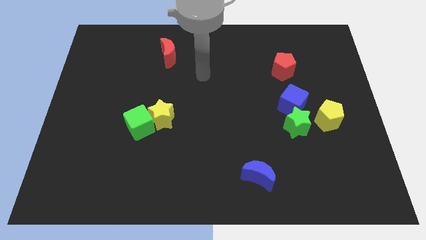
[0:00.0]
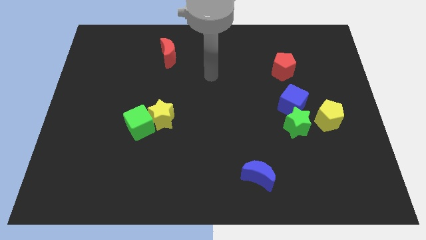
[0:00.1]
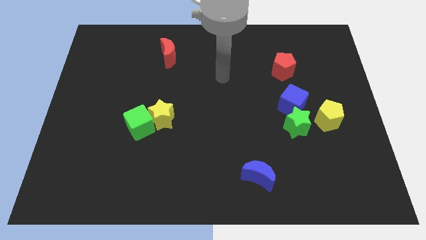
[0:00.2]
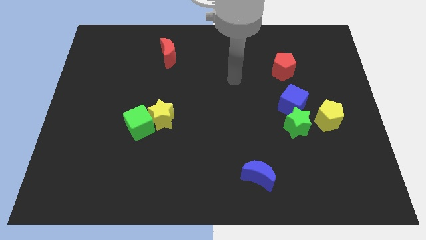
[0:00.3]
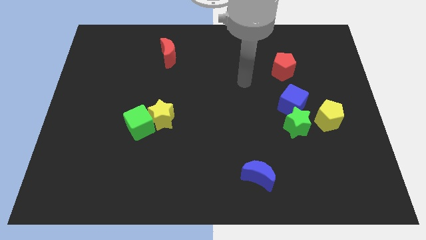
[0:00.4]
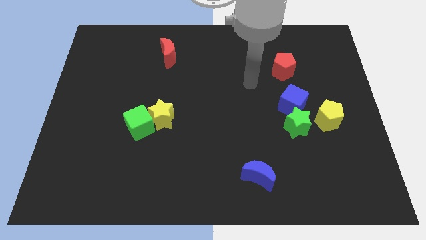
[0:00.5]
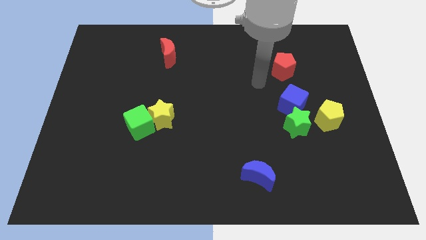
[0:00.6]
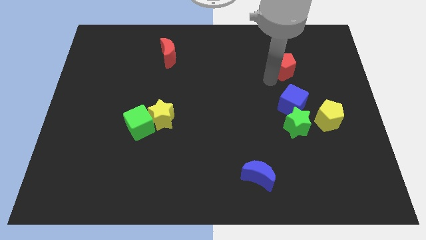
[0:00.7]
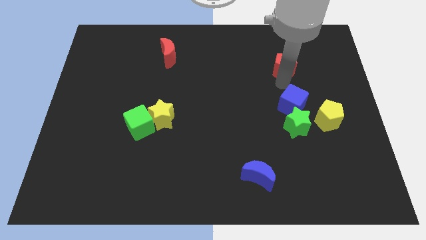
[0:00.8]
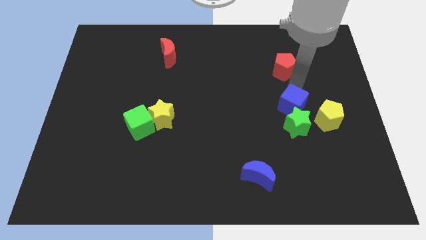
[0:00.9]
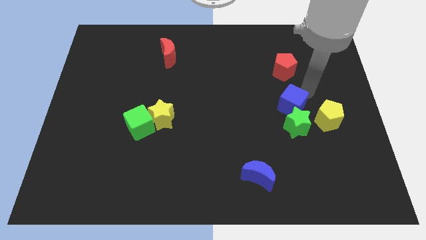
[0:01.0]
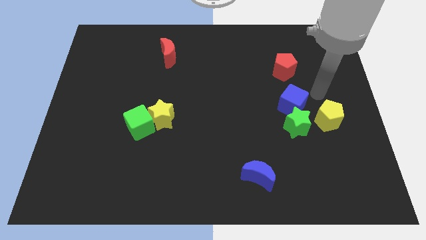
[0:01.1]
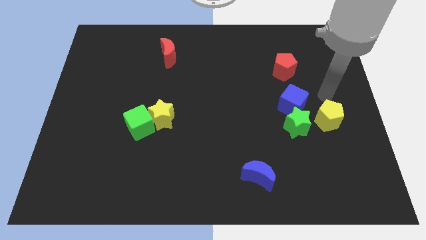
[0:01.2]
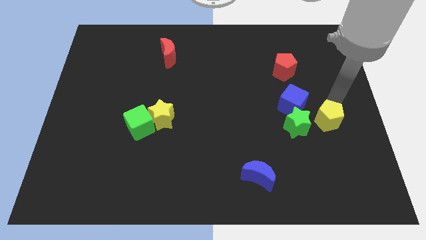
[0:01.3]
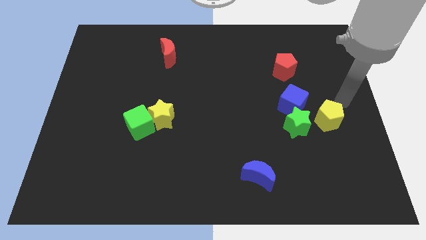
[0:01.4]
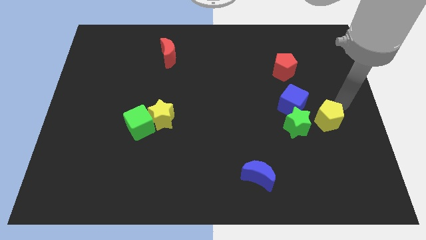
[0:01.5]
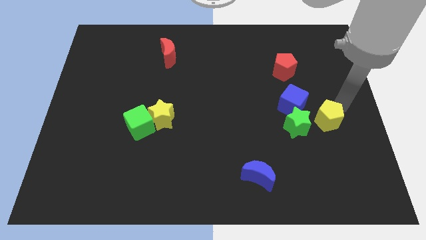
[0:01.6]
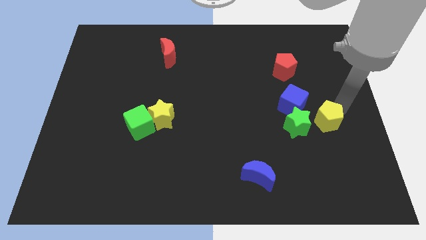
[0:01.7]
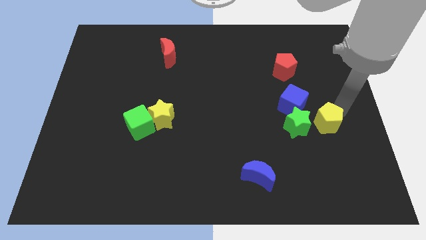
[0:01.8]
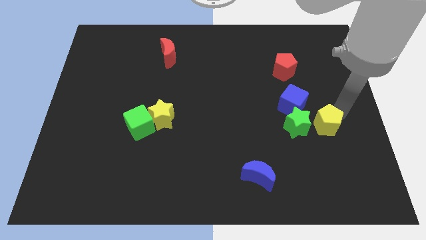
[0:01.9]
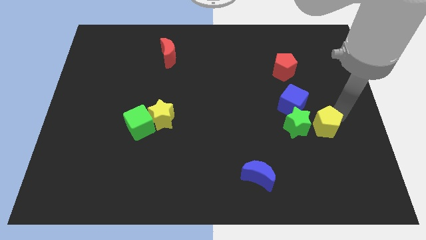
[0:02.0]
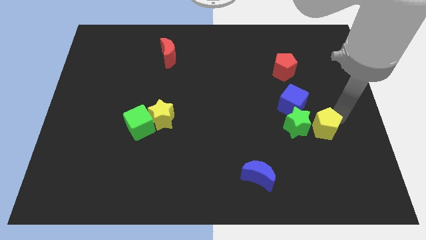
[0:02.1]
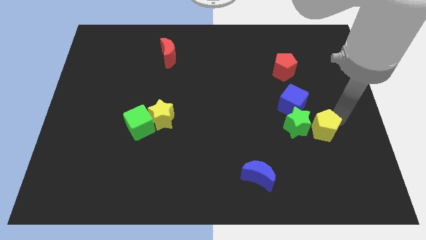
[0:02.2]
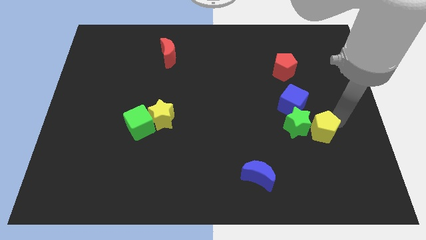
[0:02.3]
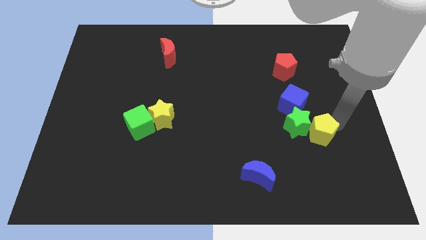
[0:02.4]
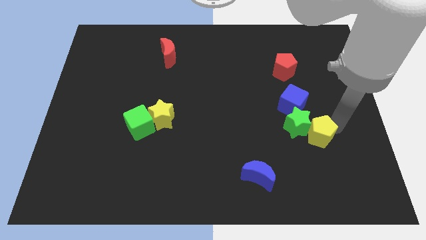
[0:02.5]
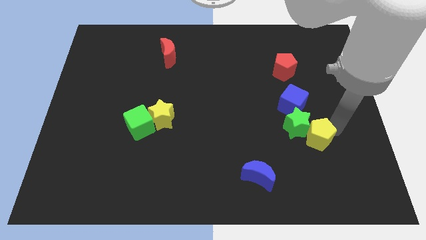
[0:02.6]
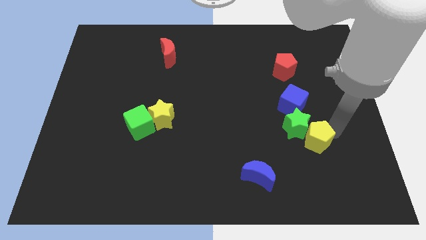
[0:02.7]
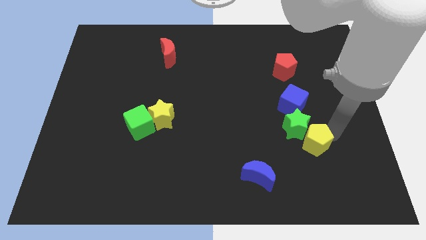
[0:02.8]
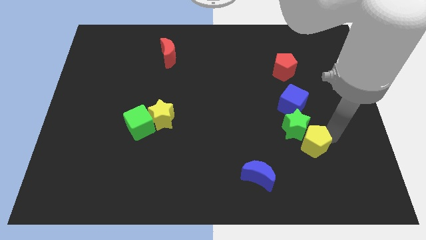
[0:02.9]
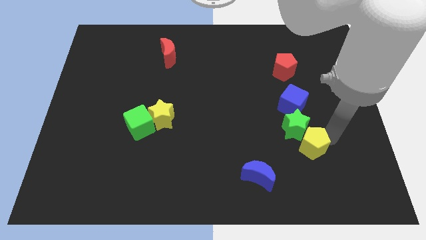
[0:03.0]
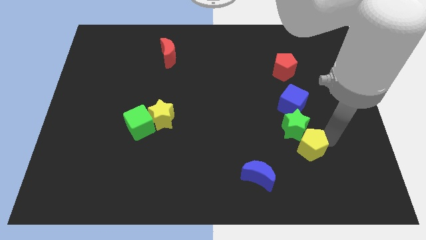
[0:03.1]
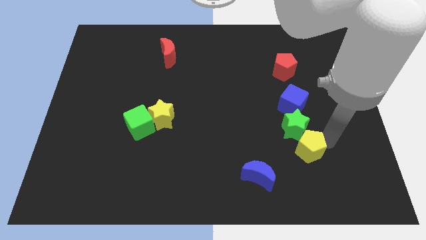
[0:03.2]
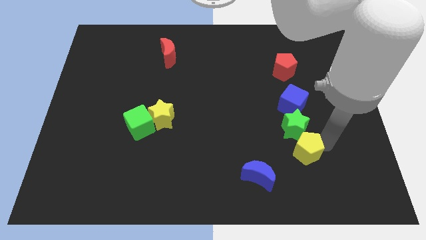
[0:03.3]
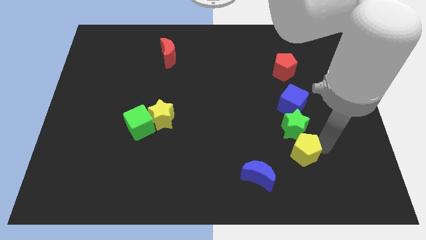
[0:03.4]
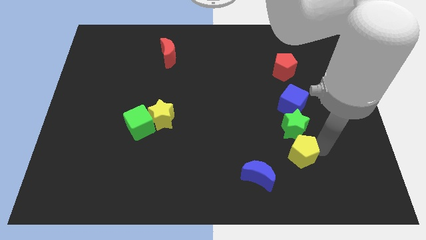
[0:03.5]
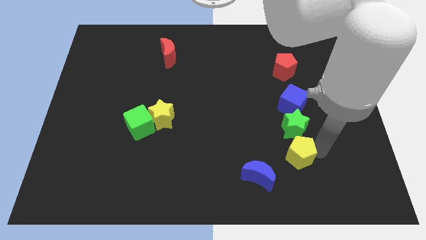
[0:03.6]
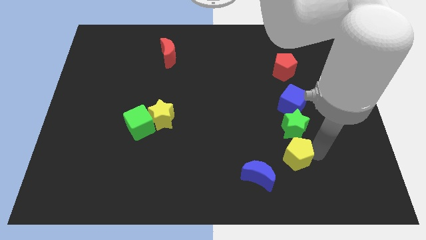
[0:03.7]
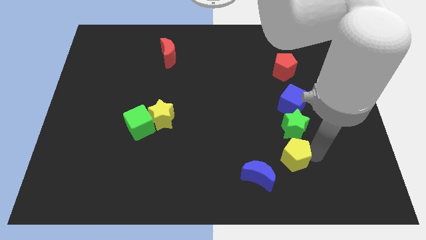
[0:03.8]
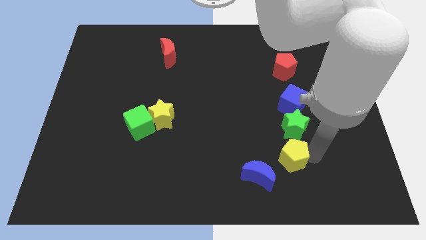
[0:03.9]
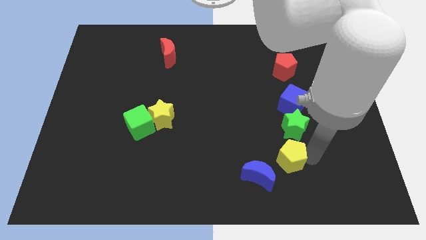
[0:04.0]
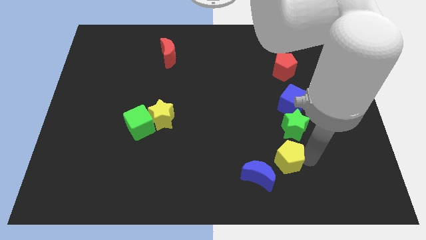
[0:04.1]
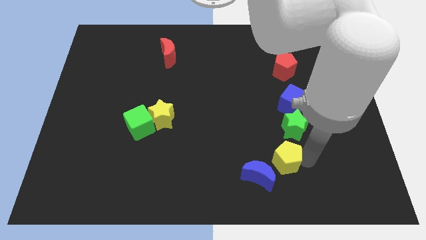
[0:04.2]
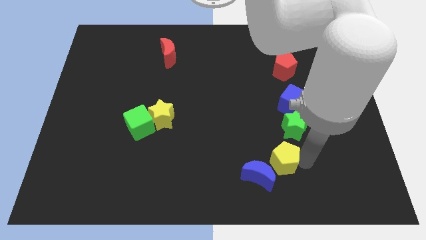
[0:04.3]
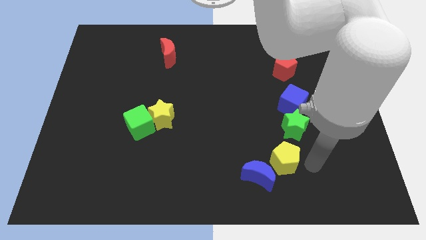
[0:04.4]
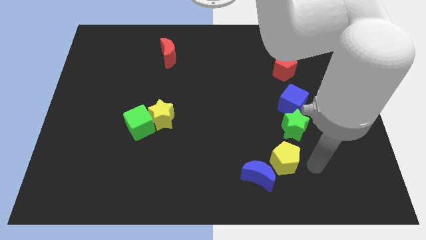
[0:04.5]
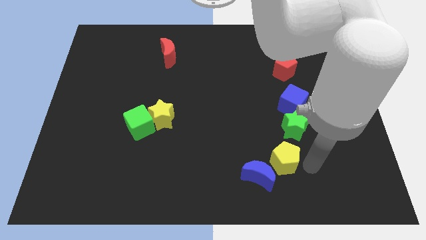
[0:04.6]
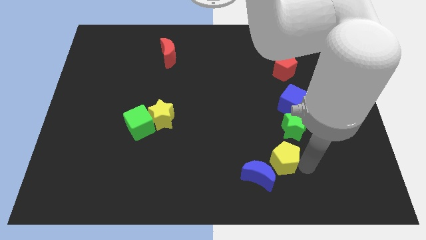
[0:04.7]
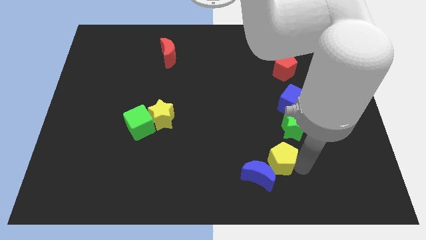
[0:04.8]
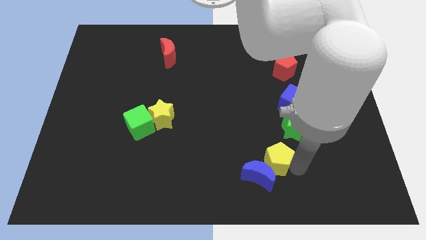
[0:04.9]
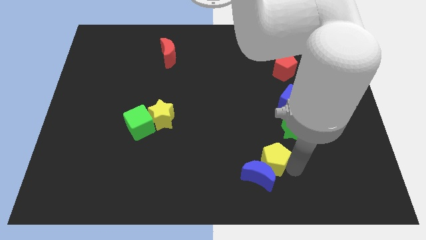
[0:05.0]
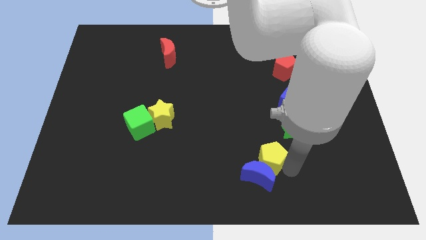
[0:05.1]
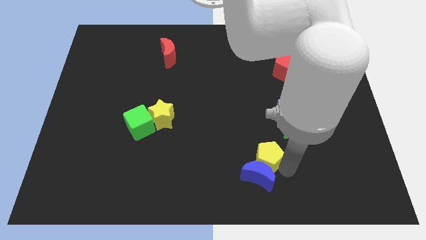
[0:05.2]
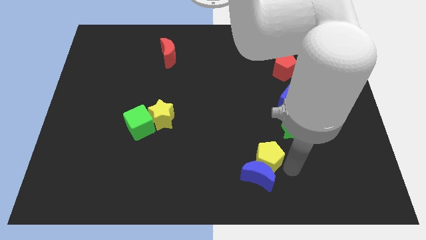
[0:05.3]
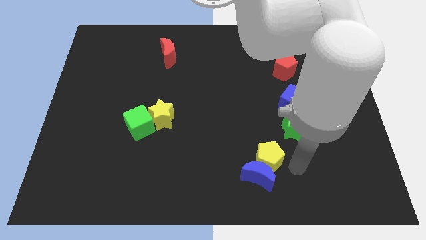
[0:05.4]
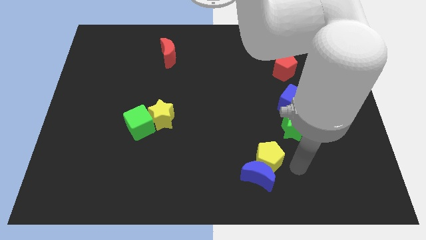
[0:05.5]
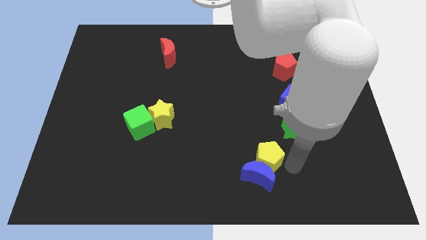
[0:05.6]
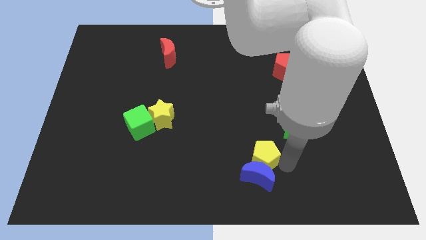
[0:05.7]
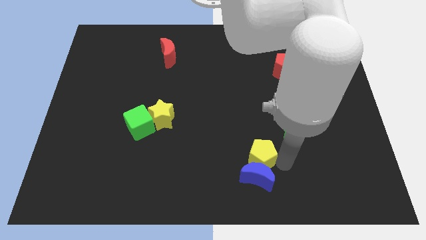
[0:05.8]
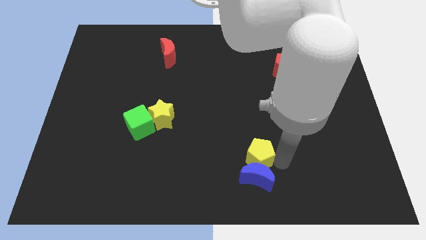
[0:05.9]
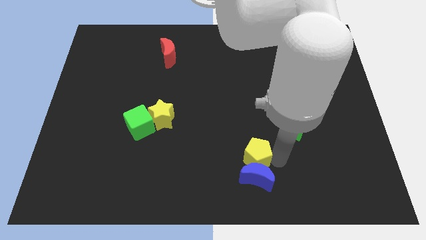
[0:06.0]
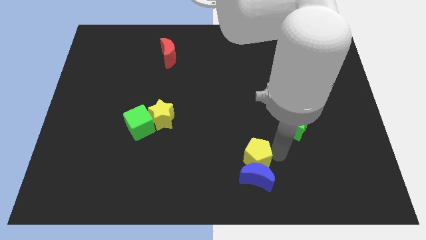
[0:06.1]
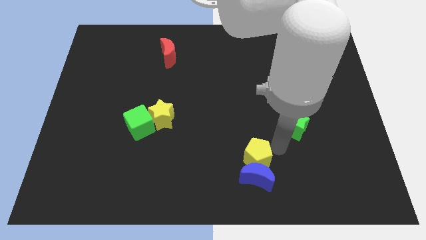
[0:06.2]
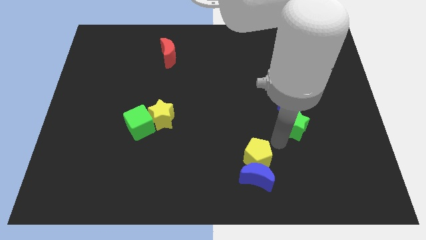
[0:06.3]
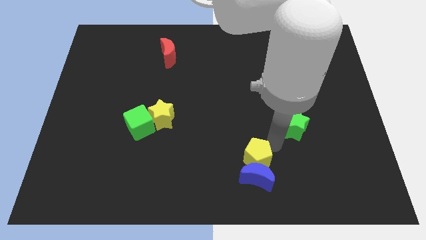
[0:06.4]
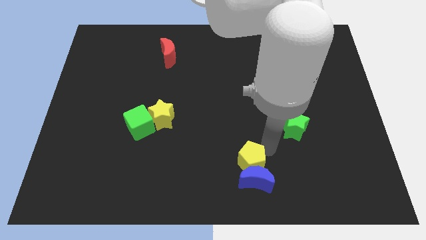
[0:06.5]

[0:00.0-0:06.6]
push the yellow pentagon to the bottom side
